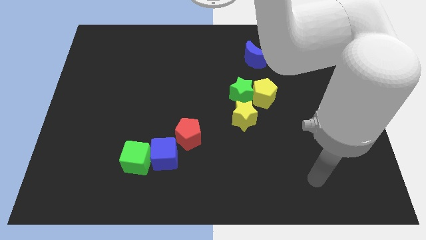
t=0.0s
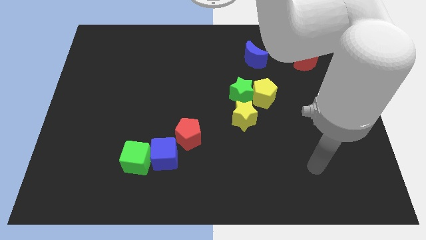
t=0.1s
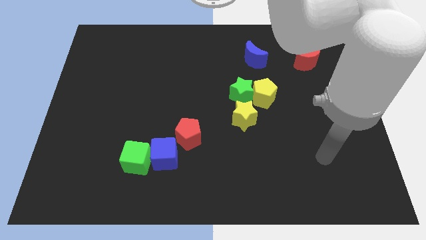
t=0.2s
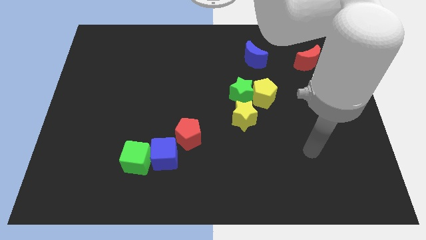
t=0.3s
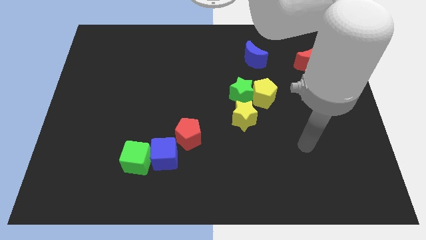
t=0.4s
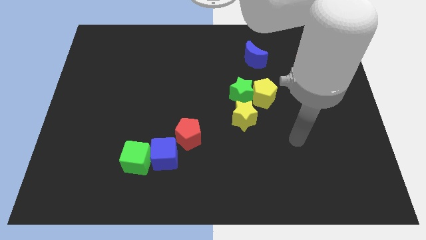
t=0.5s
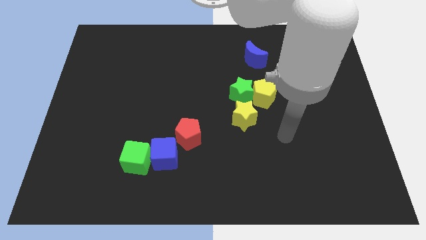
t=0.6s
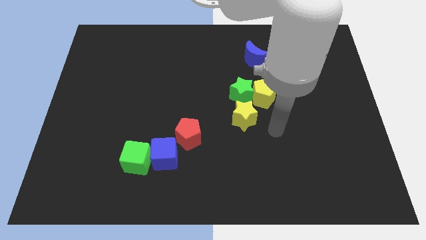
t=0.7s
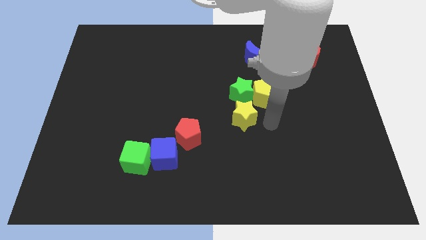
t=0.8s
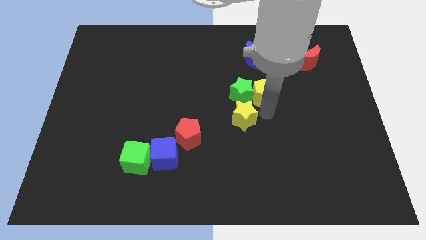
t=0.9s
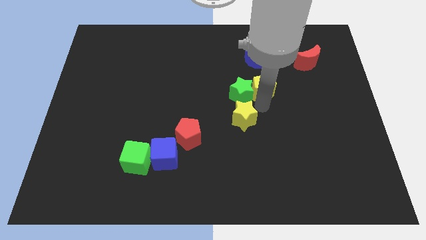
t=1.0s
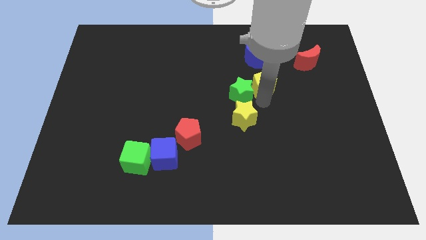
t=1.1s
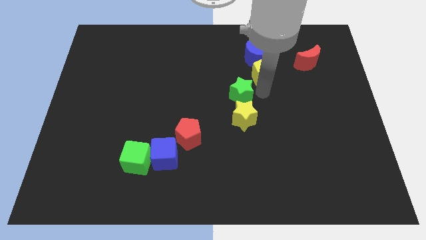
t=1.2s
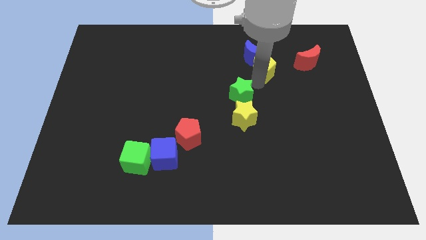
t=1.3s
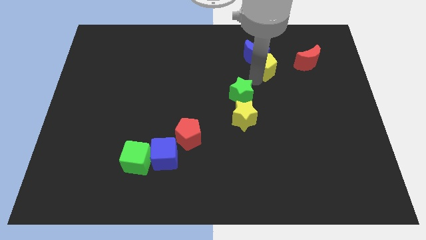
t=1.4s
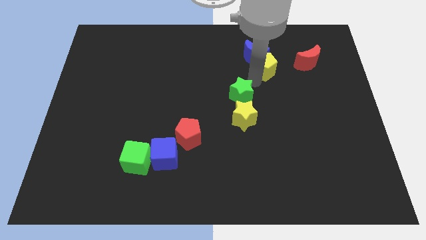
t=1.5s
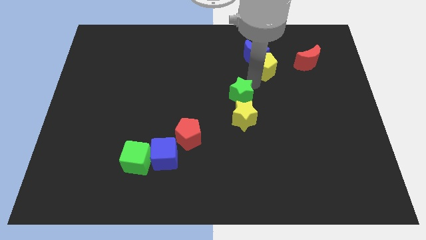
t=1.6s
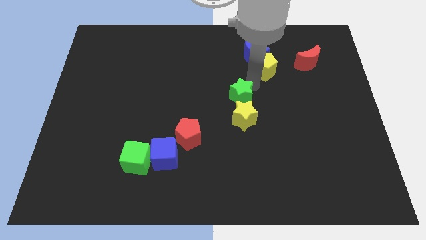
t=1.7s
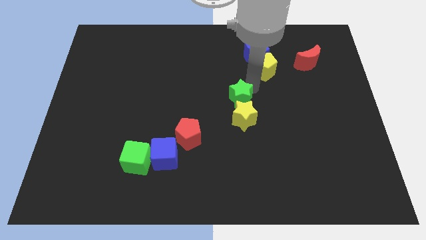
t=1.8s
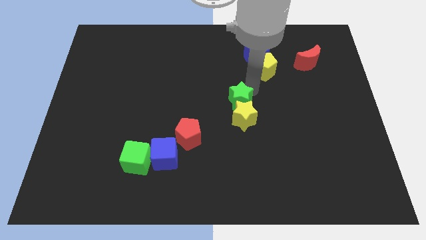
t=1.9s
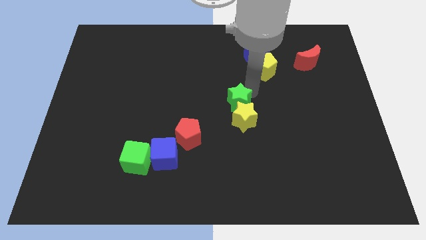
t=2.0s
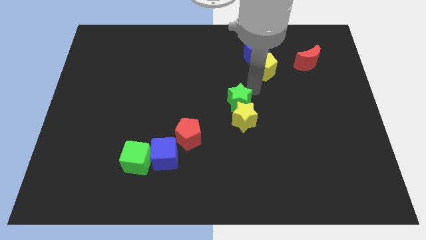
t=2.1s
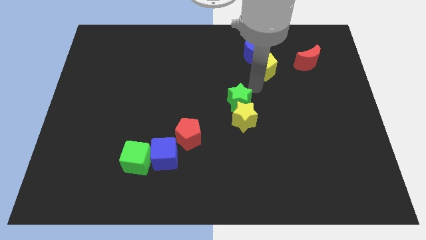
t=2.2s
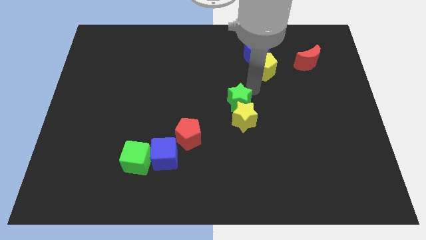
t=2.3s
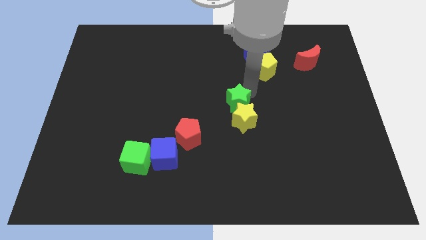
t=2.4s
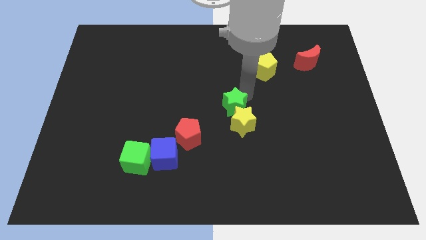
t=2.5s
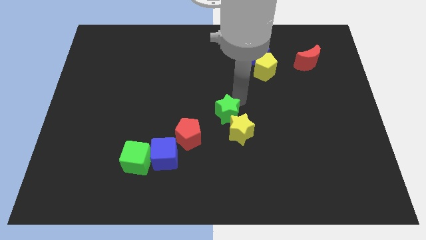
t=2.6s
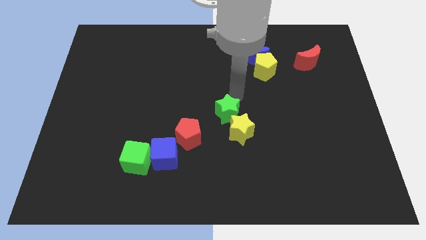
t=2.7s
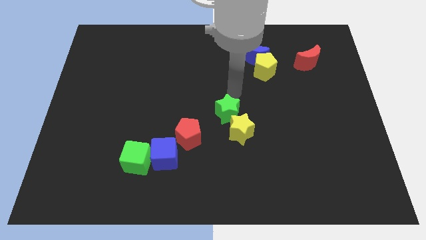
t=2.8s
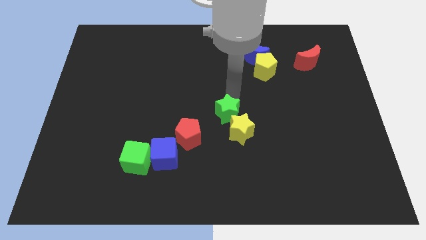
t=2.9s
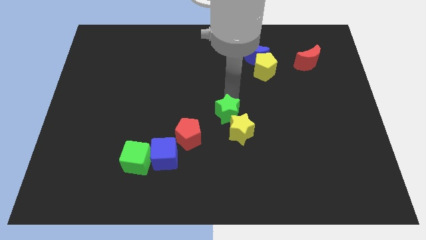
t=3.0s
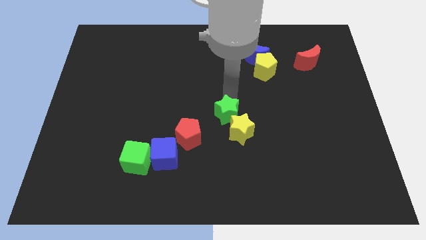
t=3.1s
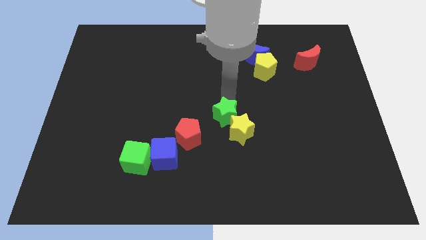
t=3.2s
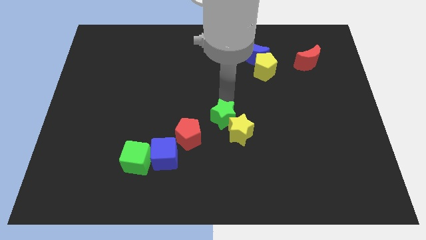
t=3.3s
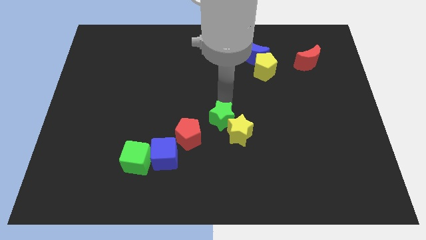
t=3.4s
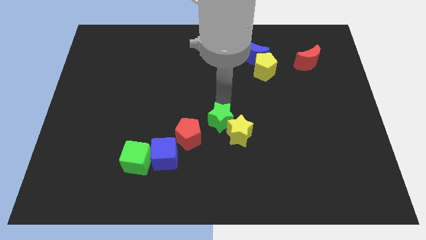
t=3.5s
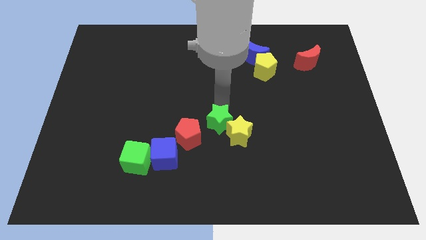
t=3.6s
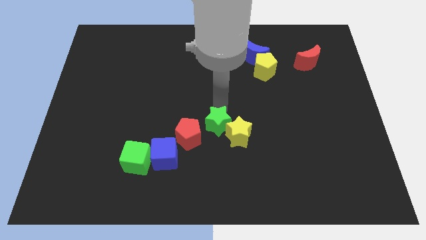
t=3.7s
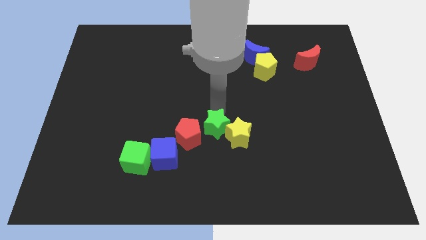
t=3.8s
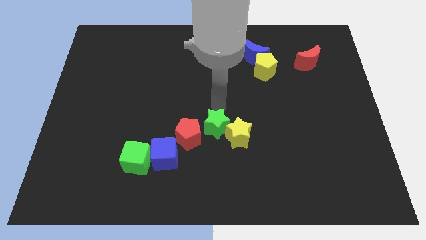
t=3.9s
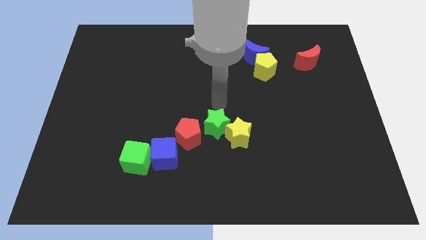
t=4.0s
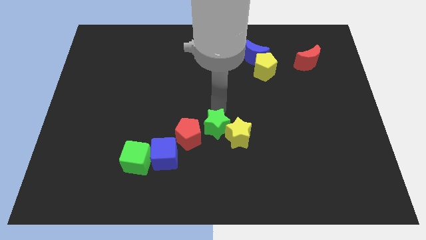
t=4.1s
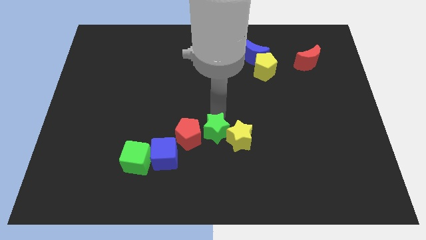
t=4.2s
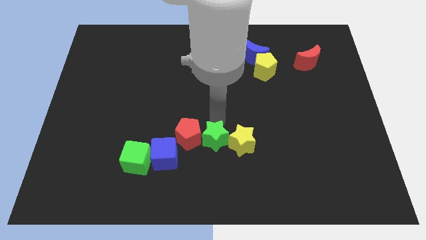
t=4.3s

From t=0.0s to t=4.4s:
put the green star to the right side of the blue cube

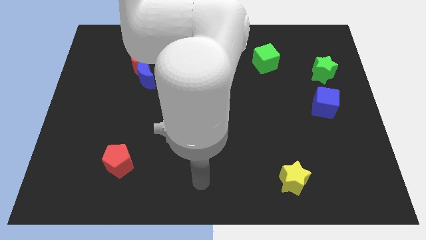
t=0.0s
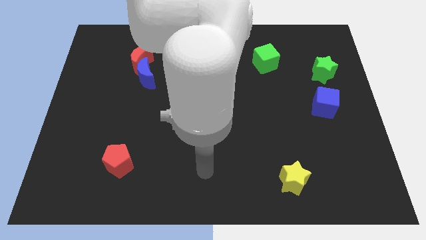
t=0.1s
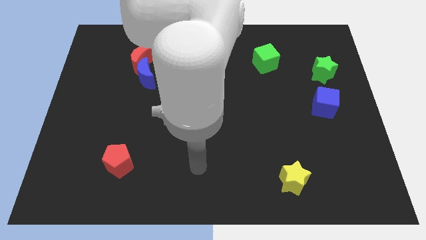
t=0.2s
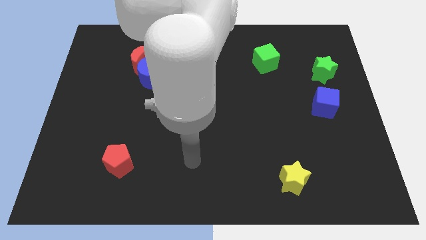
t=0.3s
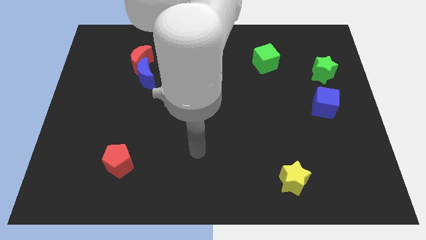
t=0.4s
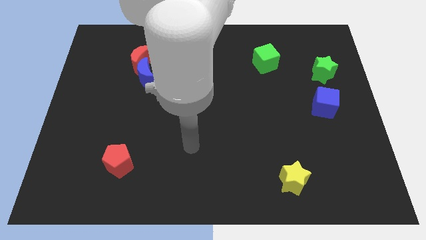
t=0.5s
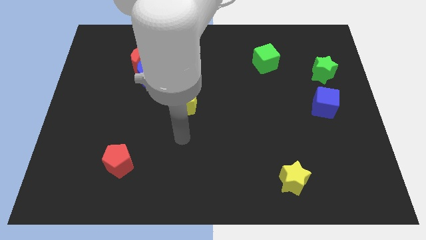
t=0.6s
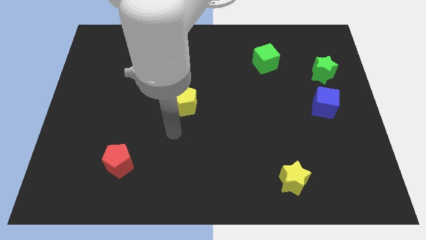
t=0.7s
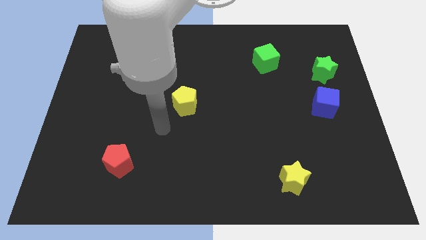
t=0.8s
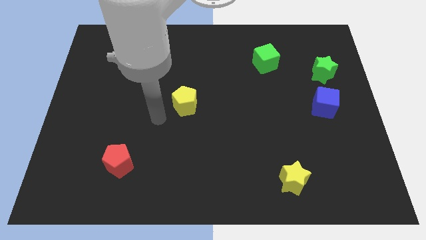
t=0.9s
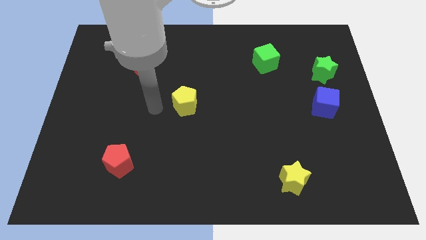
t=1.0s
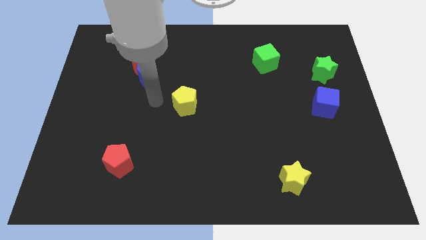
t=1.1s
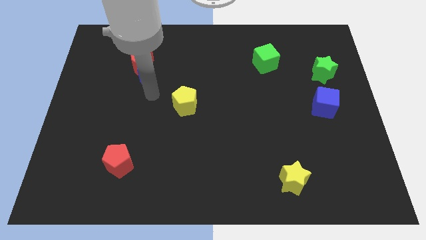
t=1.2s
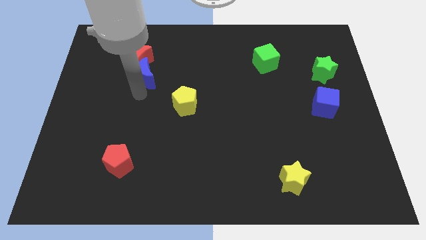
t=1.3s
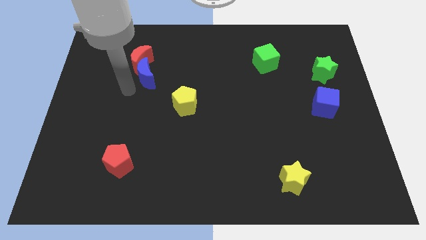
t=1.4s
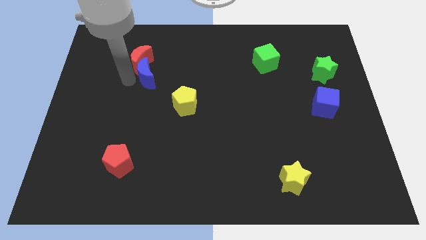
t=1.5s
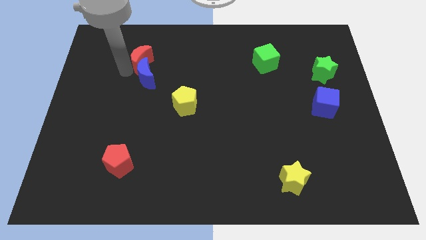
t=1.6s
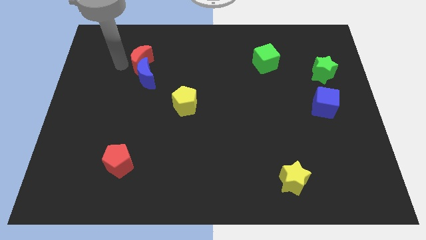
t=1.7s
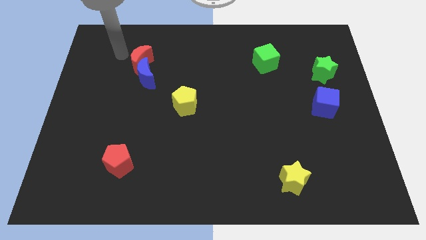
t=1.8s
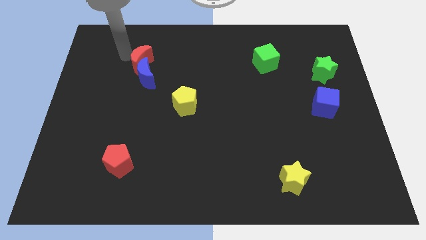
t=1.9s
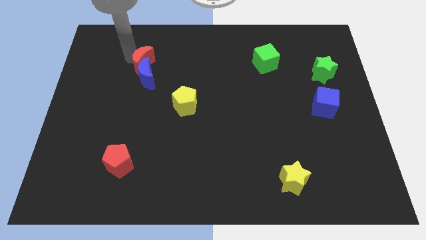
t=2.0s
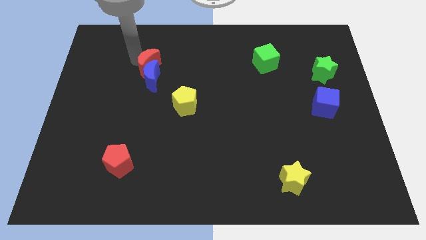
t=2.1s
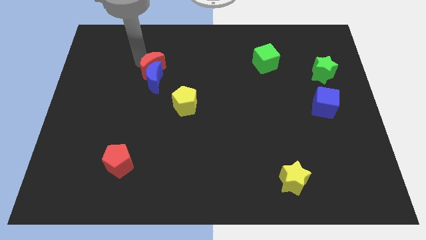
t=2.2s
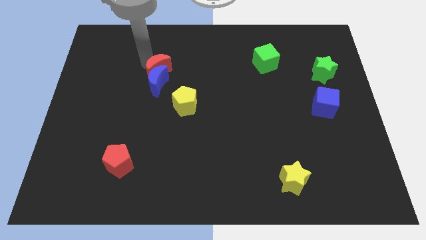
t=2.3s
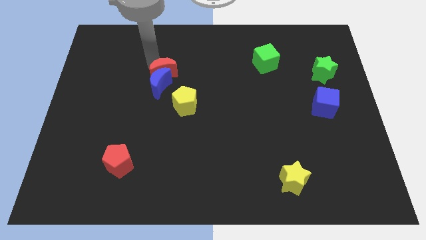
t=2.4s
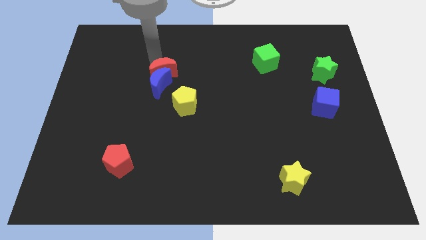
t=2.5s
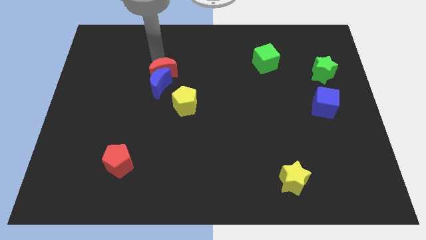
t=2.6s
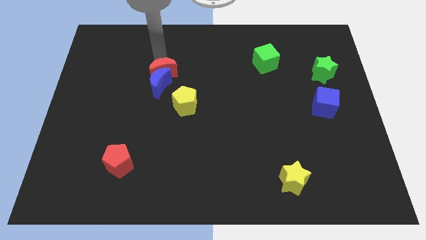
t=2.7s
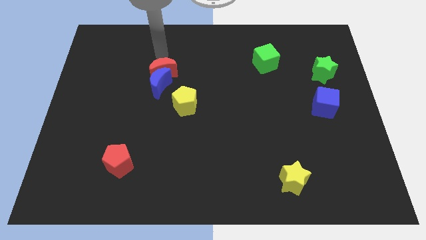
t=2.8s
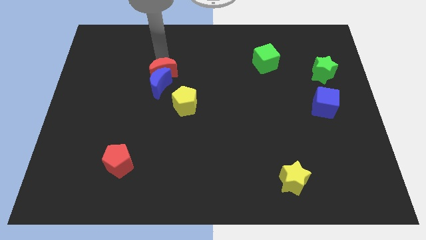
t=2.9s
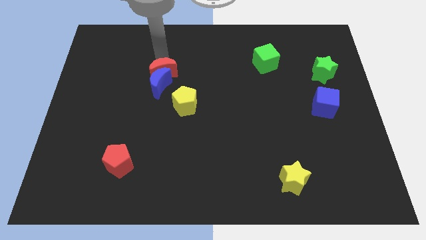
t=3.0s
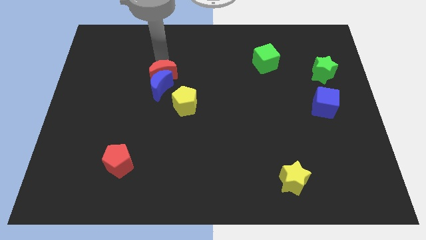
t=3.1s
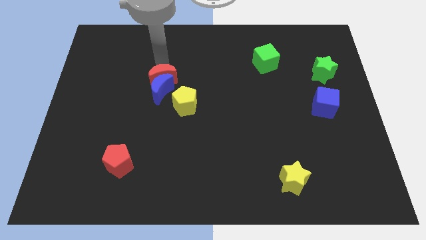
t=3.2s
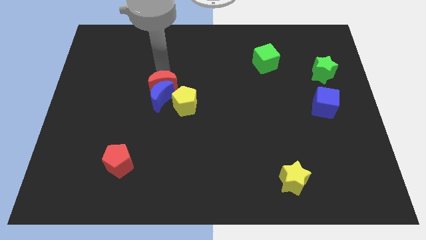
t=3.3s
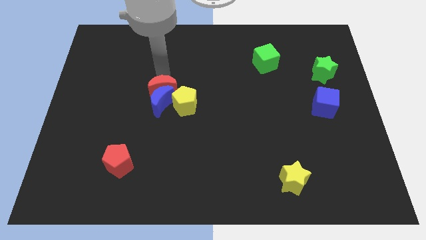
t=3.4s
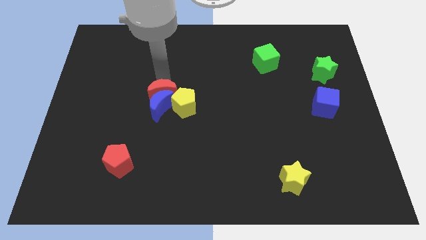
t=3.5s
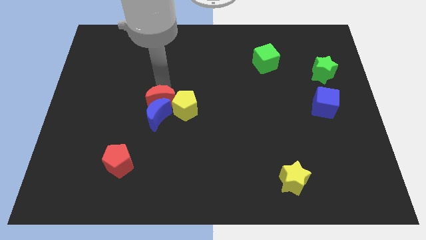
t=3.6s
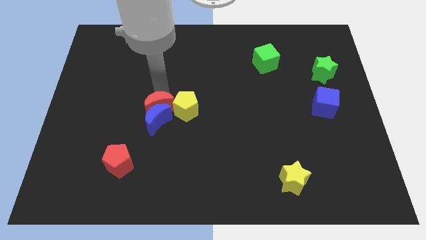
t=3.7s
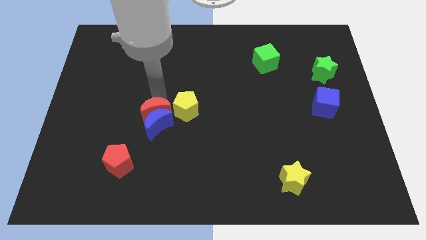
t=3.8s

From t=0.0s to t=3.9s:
put the red moon diagonally down and to the left of the yellow pentagon
